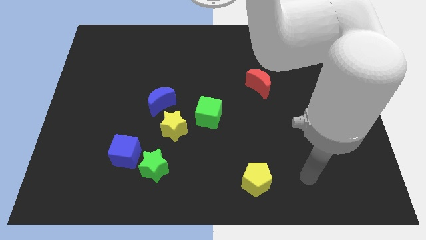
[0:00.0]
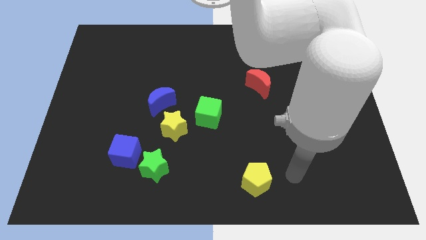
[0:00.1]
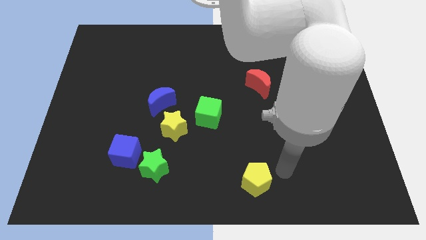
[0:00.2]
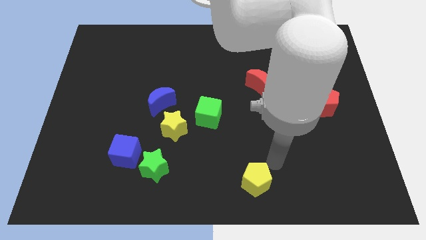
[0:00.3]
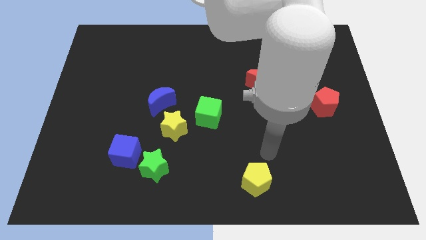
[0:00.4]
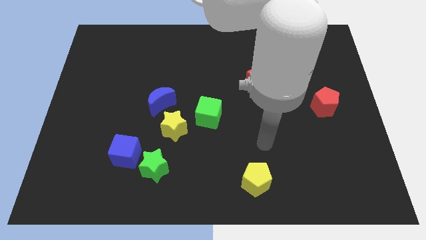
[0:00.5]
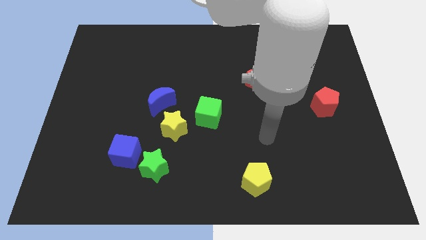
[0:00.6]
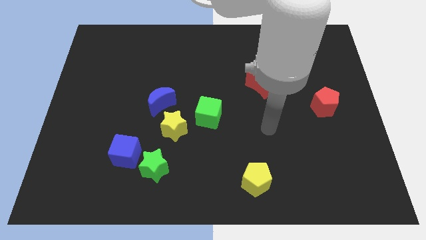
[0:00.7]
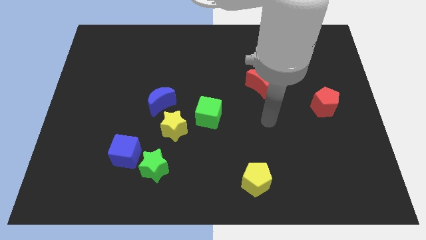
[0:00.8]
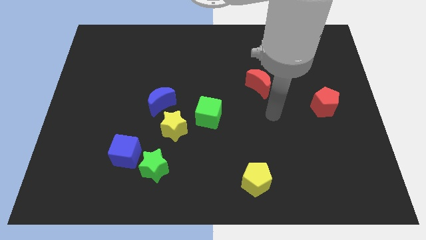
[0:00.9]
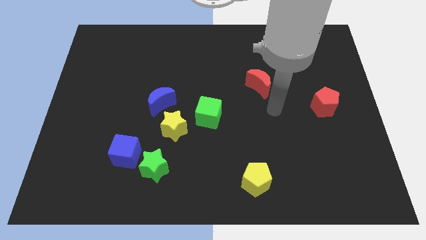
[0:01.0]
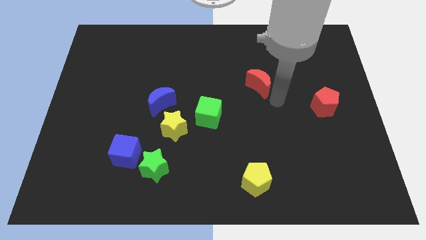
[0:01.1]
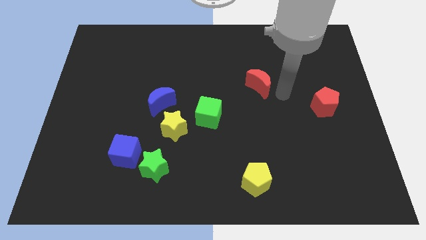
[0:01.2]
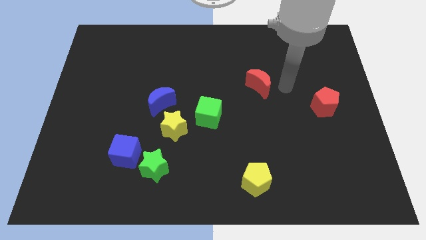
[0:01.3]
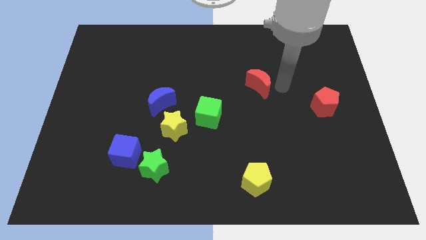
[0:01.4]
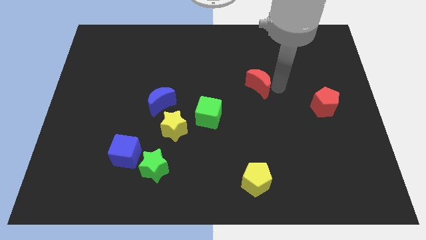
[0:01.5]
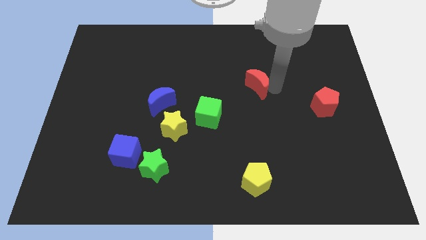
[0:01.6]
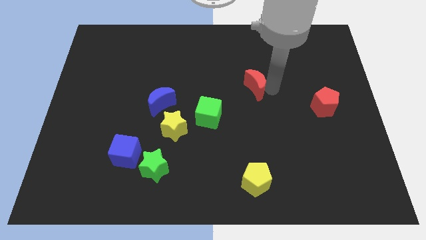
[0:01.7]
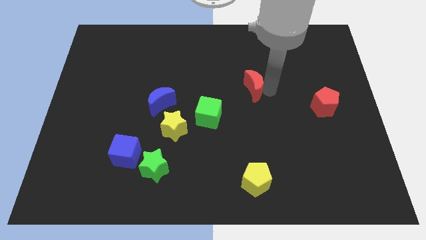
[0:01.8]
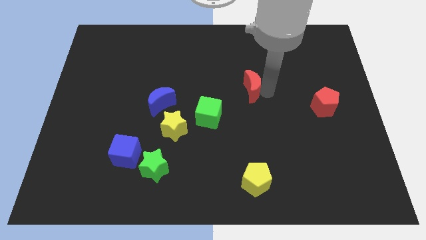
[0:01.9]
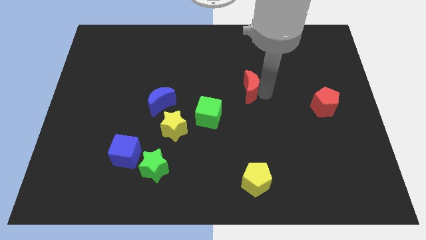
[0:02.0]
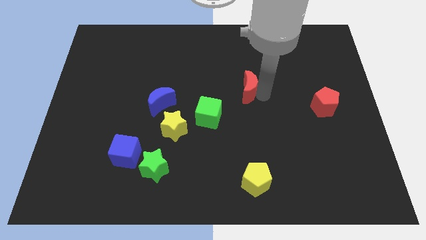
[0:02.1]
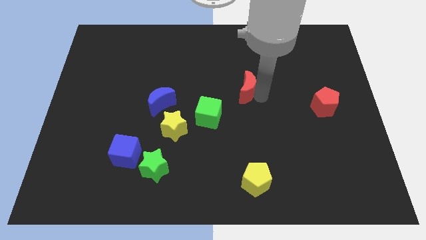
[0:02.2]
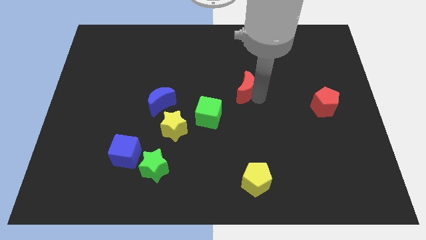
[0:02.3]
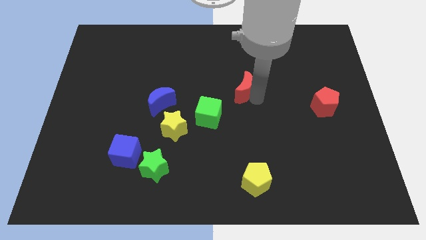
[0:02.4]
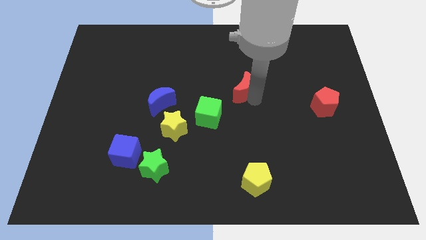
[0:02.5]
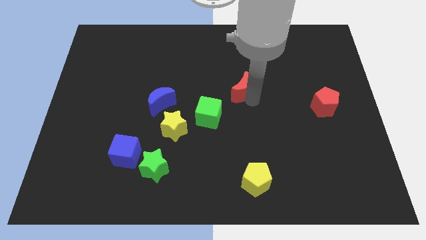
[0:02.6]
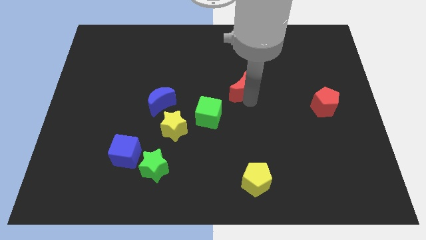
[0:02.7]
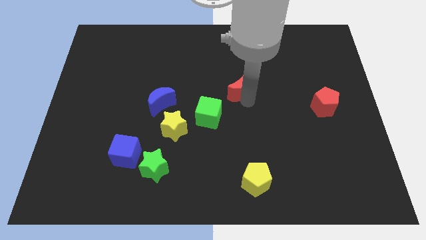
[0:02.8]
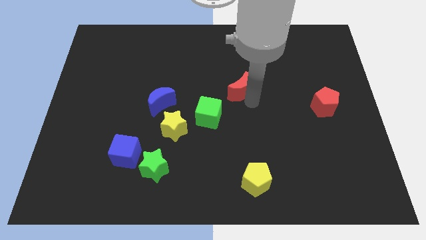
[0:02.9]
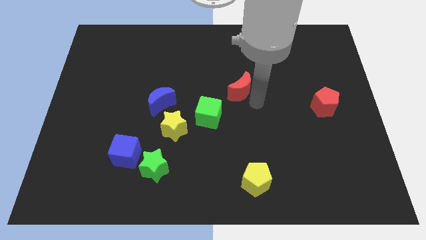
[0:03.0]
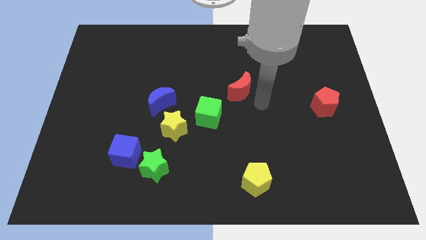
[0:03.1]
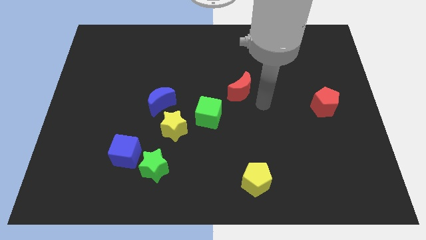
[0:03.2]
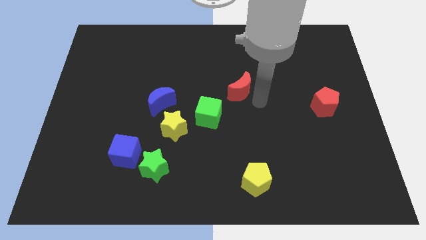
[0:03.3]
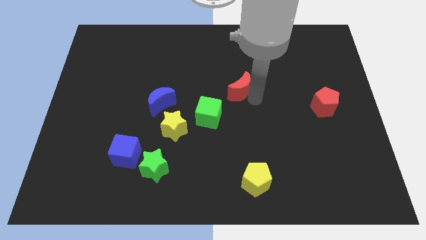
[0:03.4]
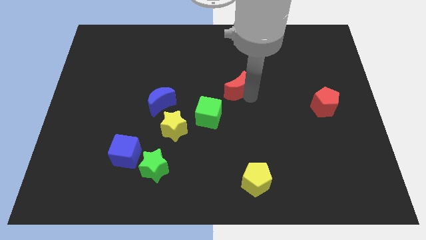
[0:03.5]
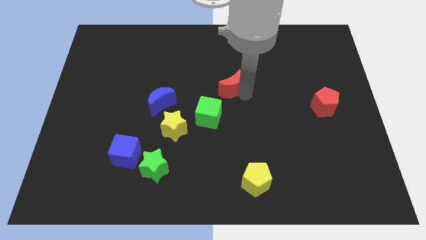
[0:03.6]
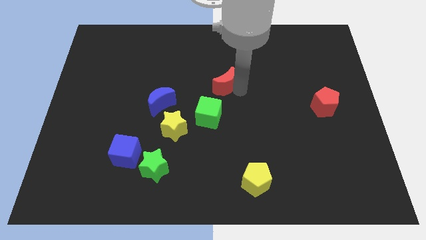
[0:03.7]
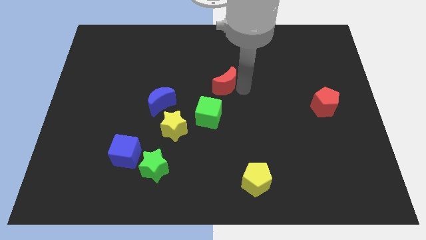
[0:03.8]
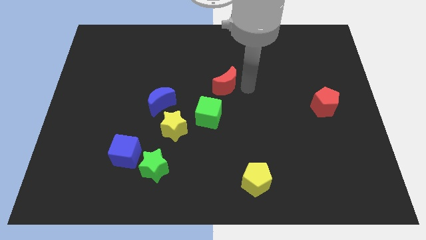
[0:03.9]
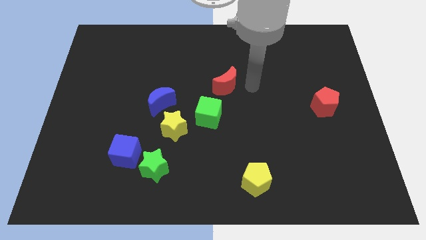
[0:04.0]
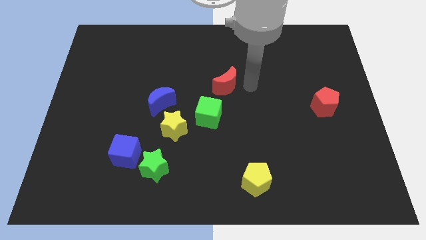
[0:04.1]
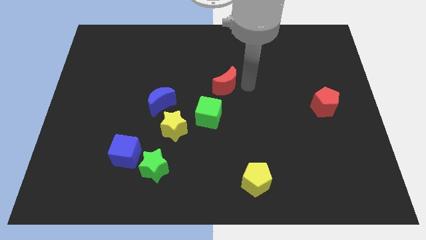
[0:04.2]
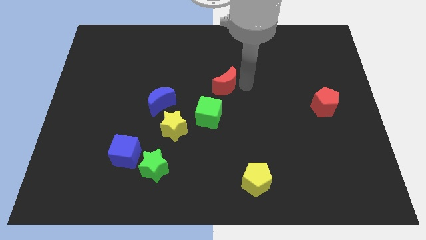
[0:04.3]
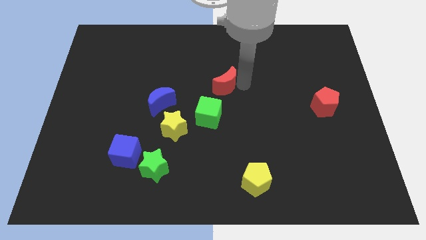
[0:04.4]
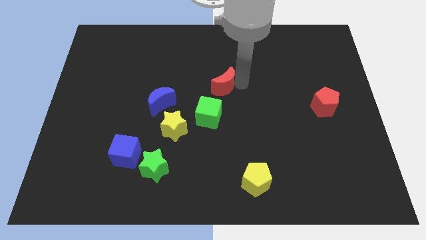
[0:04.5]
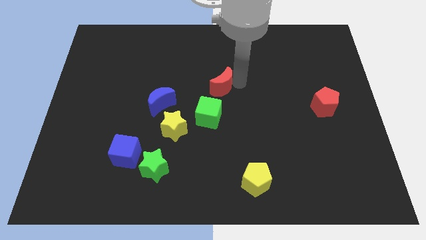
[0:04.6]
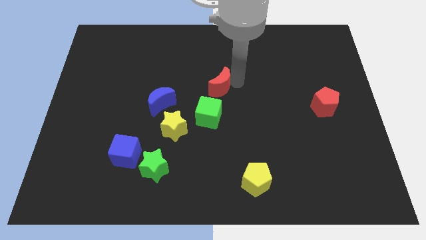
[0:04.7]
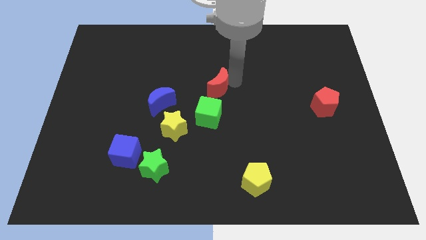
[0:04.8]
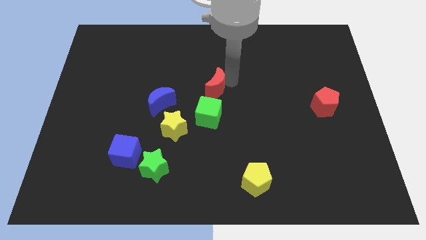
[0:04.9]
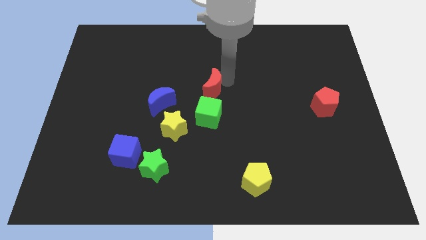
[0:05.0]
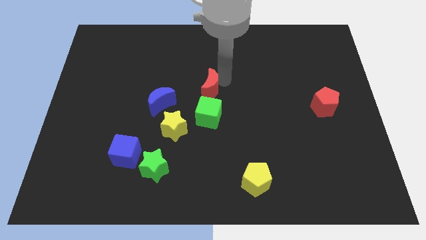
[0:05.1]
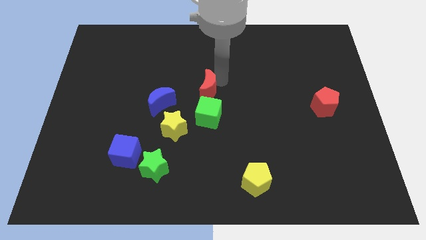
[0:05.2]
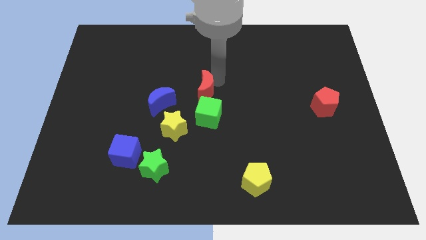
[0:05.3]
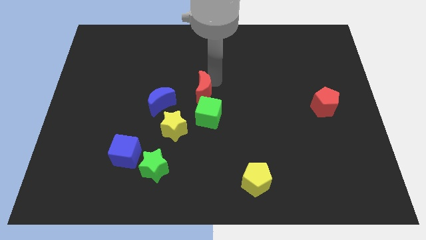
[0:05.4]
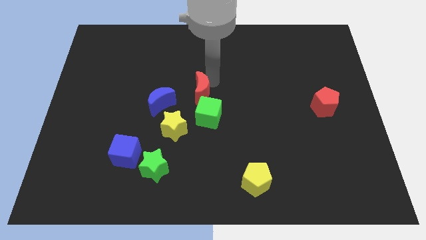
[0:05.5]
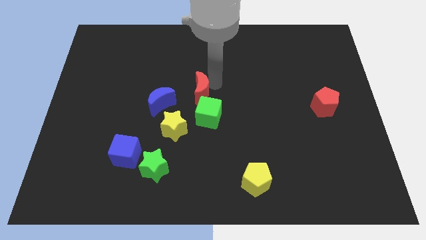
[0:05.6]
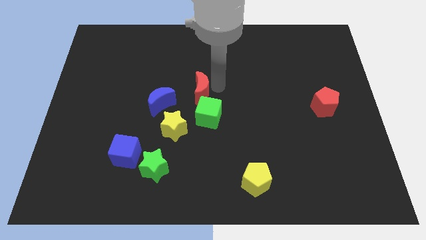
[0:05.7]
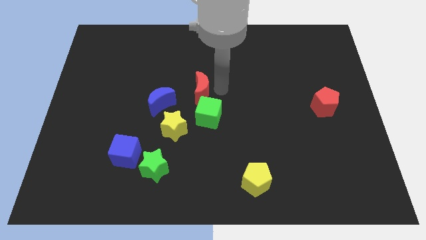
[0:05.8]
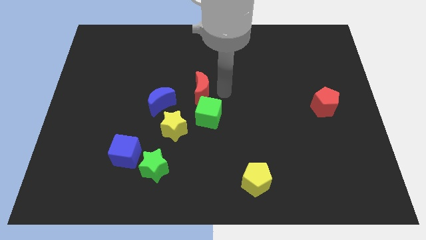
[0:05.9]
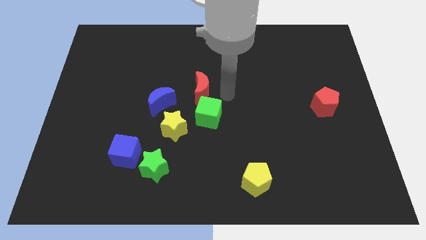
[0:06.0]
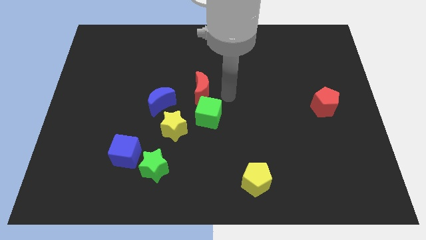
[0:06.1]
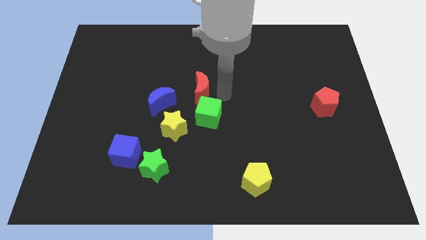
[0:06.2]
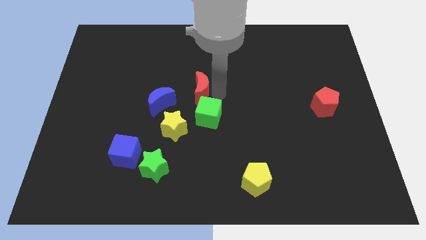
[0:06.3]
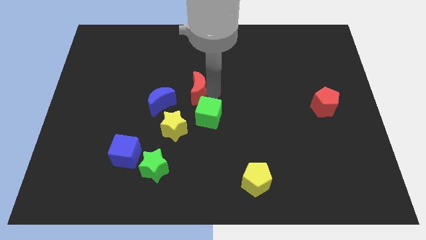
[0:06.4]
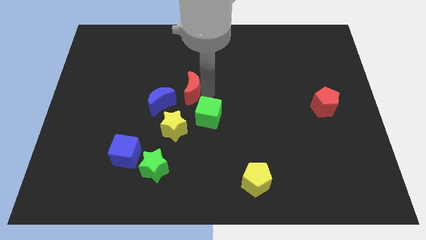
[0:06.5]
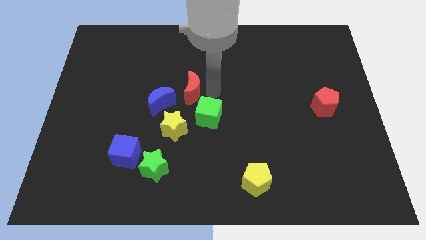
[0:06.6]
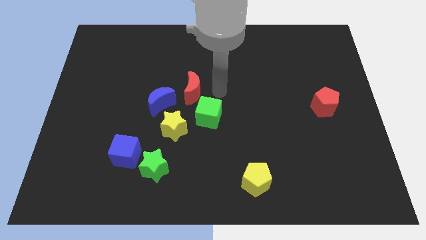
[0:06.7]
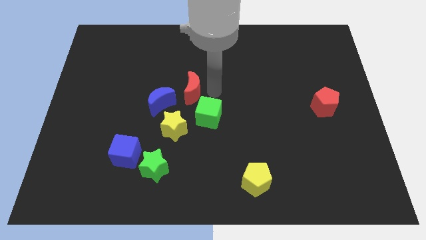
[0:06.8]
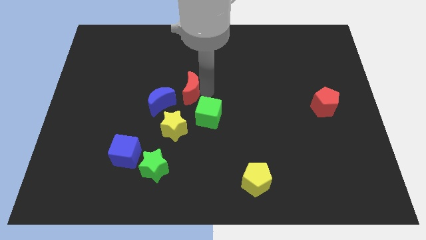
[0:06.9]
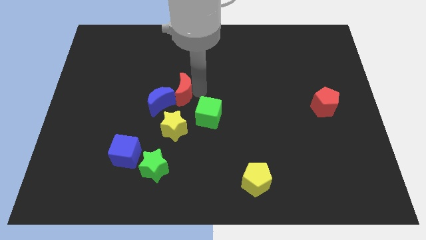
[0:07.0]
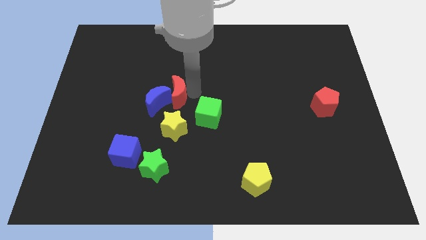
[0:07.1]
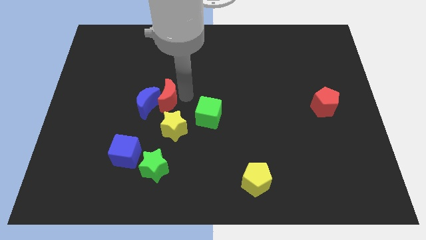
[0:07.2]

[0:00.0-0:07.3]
move the red moon left

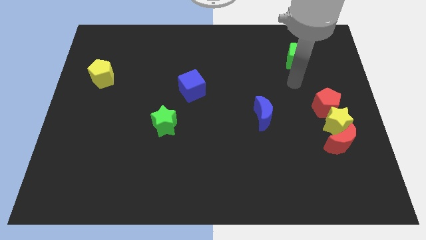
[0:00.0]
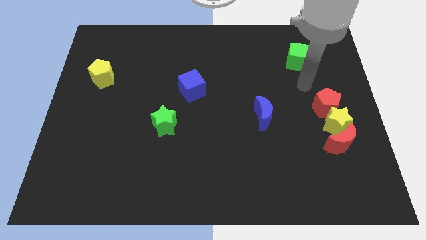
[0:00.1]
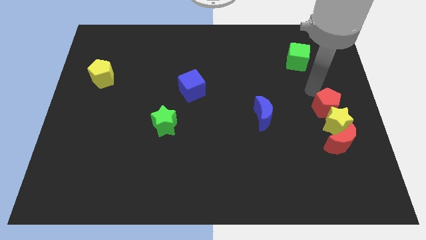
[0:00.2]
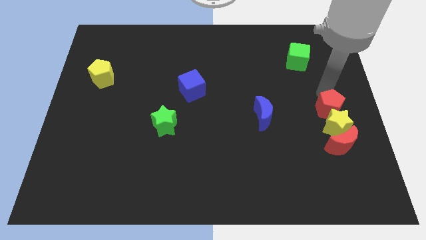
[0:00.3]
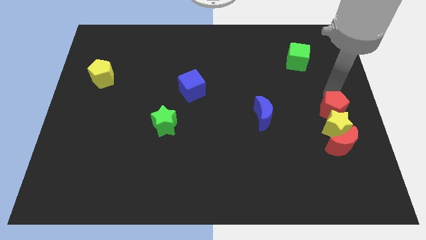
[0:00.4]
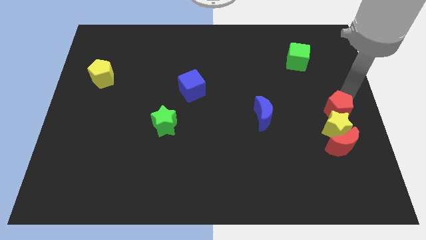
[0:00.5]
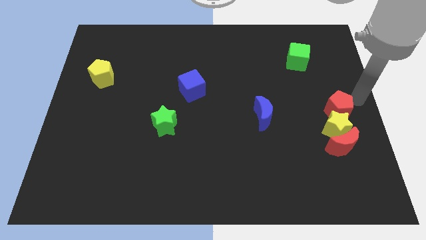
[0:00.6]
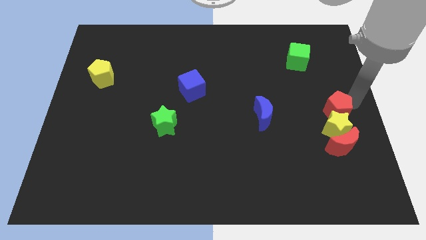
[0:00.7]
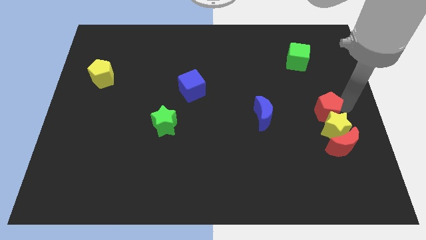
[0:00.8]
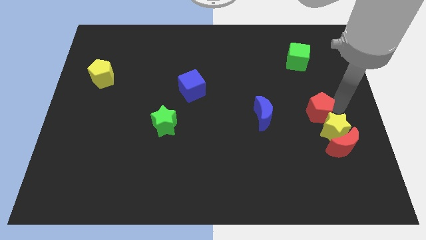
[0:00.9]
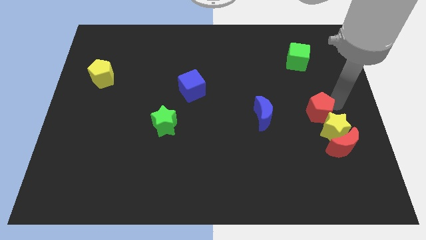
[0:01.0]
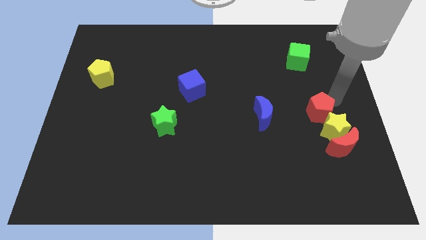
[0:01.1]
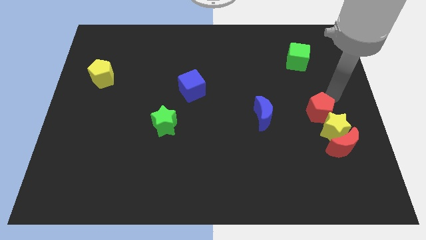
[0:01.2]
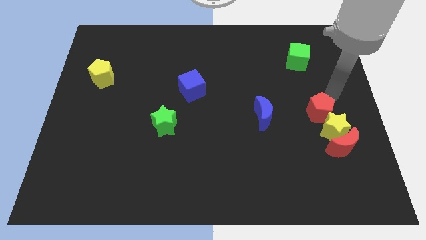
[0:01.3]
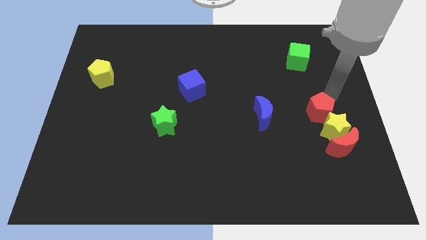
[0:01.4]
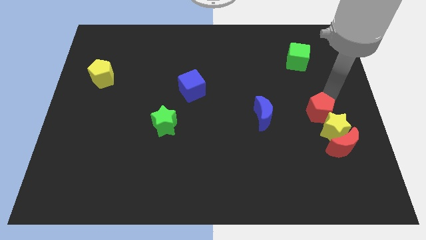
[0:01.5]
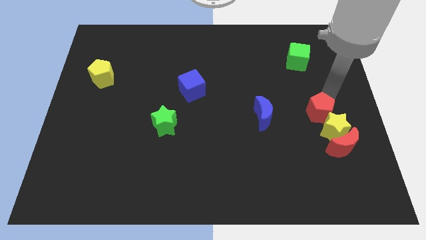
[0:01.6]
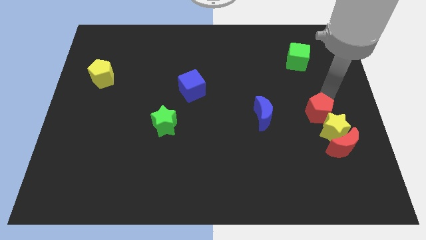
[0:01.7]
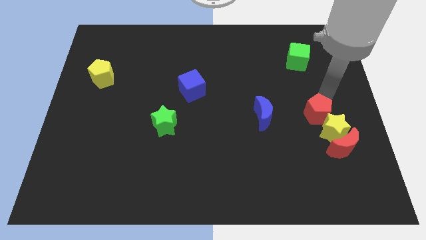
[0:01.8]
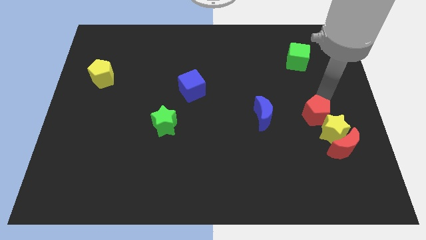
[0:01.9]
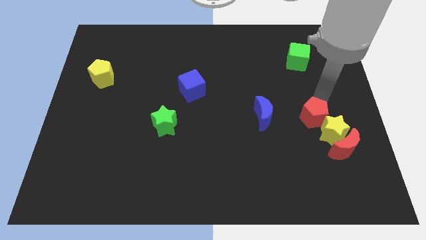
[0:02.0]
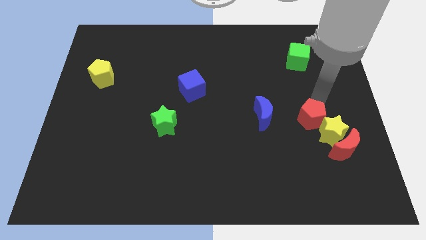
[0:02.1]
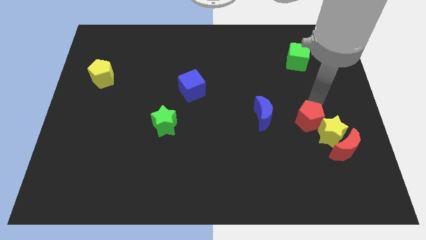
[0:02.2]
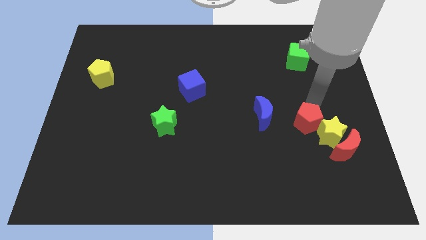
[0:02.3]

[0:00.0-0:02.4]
slightly push the red pentagon downwards and then to the left
